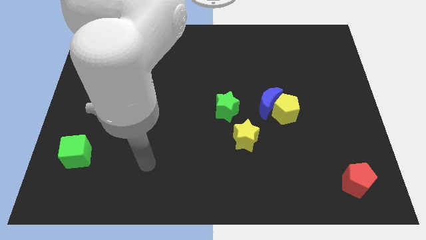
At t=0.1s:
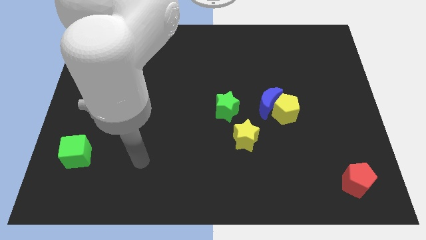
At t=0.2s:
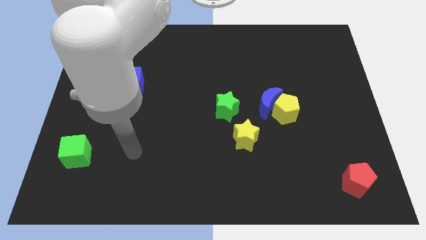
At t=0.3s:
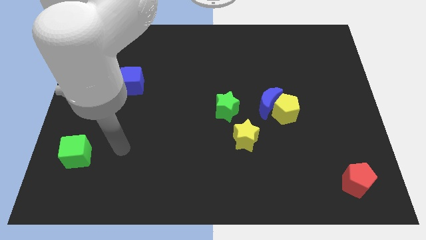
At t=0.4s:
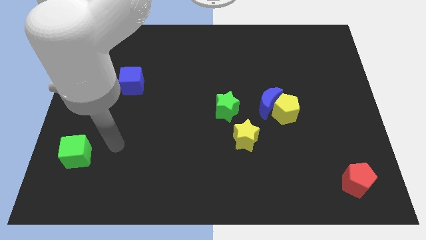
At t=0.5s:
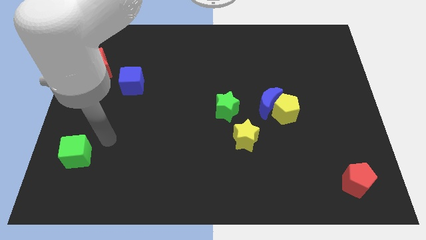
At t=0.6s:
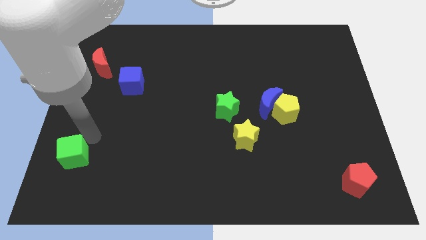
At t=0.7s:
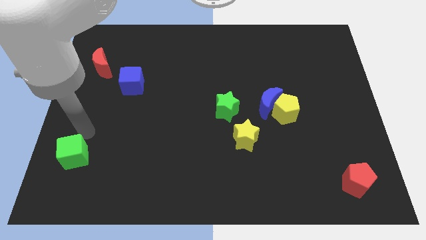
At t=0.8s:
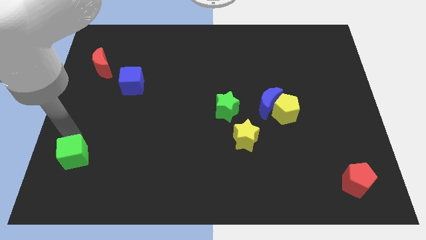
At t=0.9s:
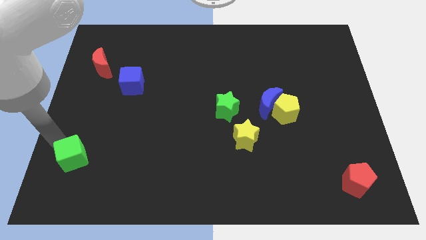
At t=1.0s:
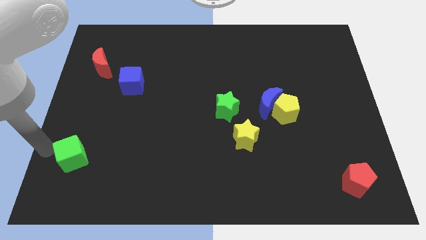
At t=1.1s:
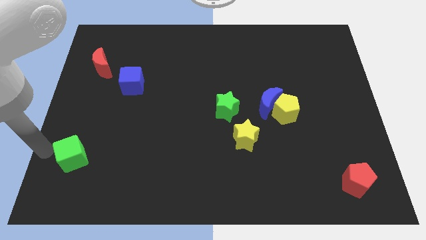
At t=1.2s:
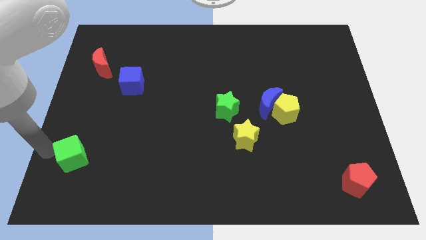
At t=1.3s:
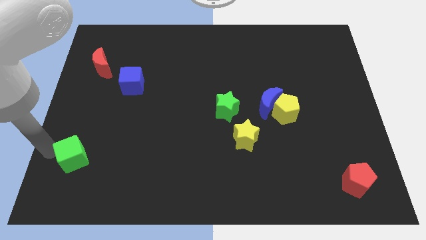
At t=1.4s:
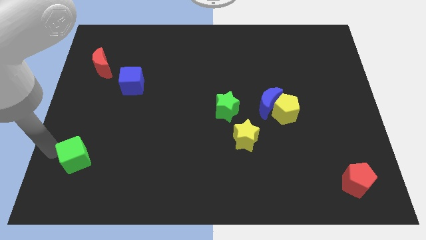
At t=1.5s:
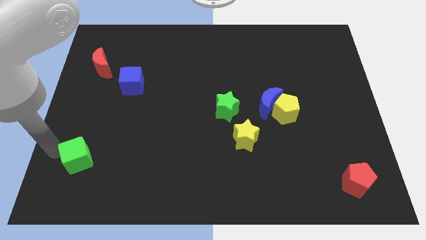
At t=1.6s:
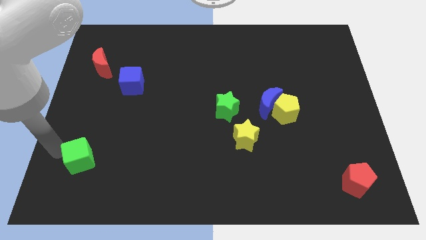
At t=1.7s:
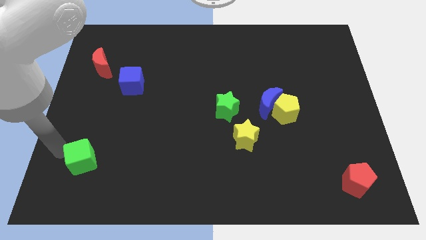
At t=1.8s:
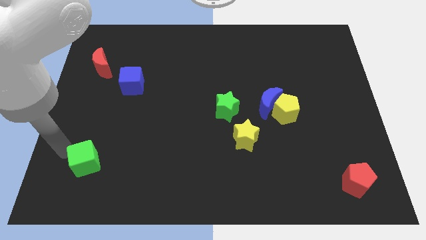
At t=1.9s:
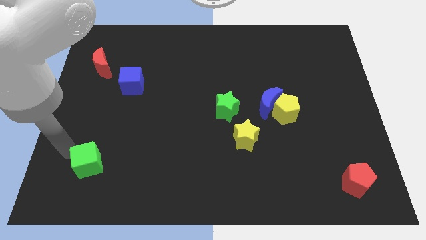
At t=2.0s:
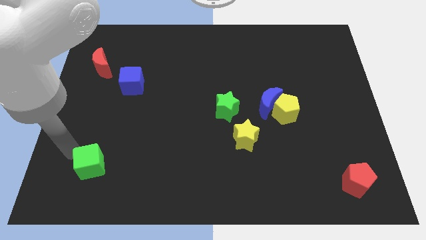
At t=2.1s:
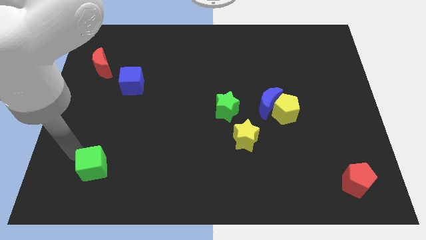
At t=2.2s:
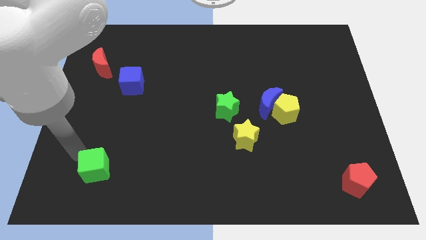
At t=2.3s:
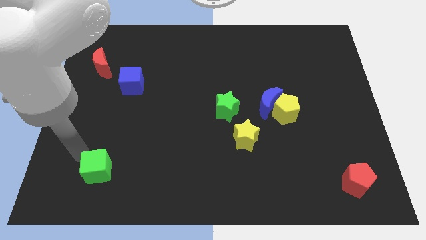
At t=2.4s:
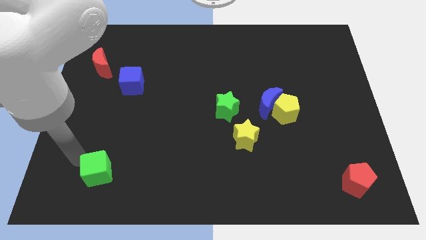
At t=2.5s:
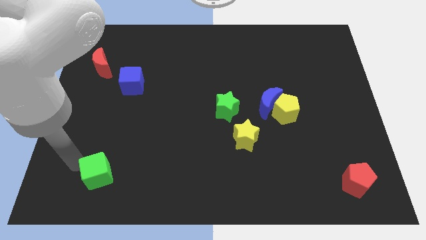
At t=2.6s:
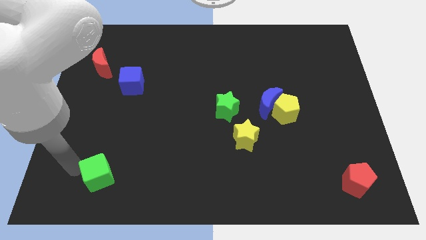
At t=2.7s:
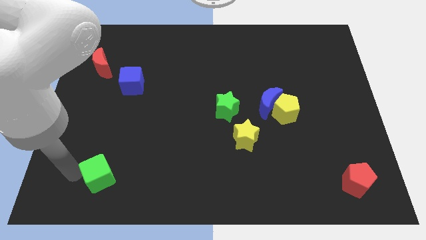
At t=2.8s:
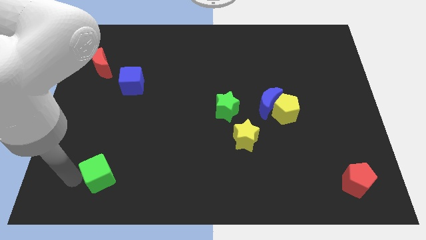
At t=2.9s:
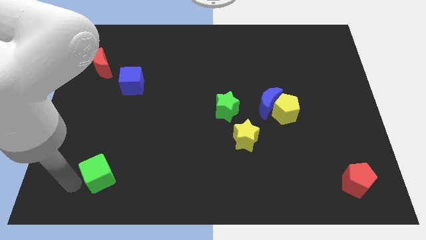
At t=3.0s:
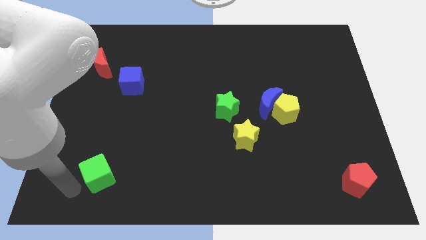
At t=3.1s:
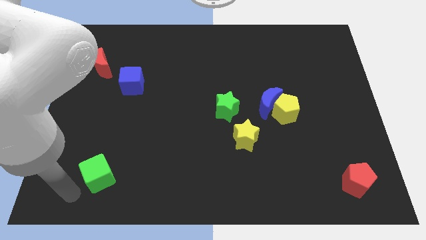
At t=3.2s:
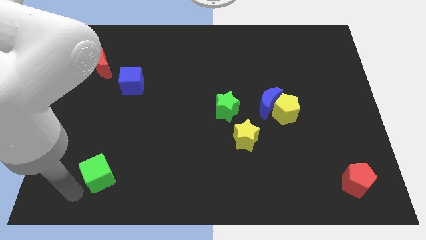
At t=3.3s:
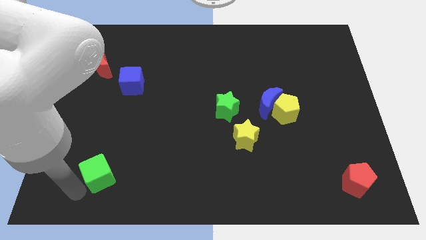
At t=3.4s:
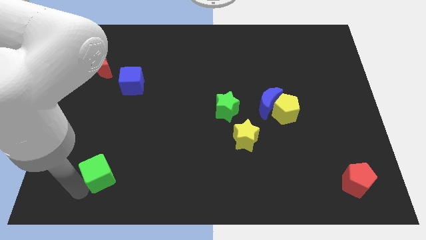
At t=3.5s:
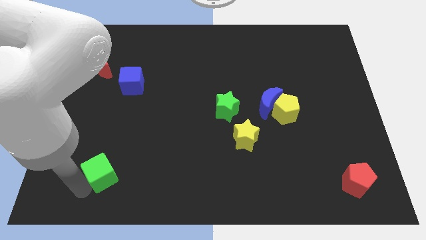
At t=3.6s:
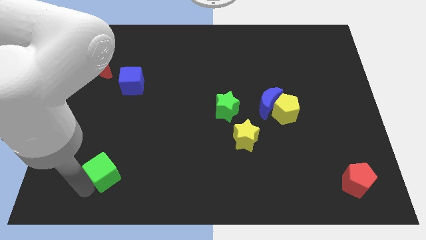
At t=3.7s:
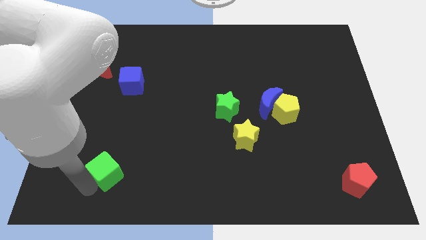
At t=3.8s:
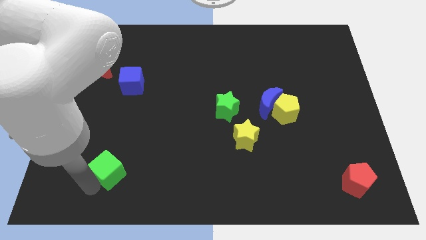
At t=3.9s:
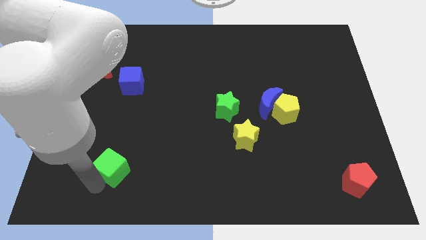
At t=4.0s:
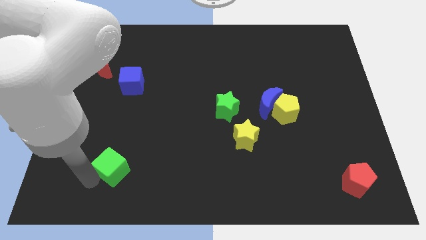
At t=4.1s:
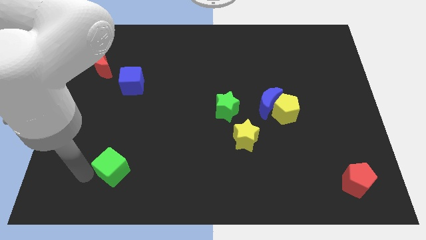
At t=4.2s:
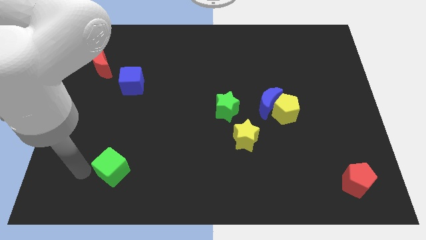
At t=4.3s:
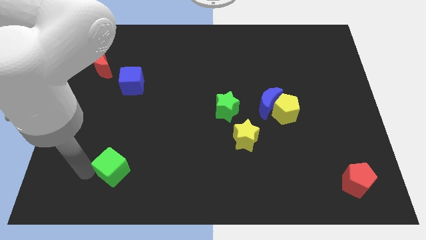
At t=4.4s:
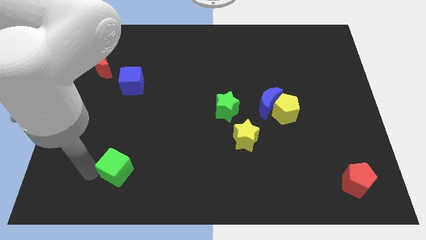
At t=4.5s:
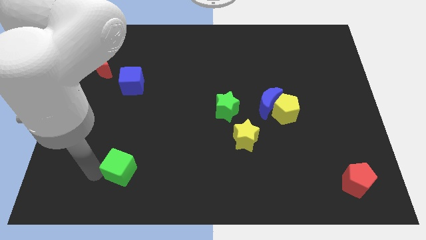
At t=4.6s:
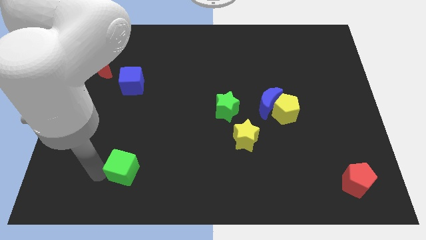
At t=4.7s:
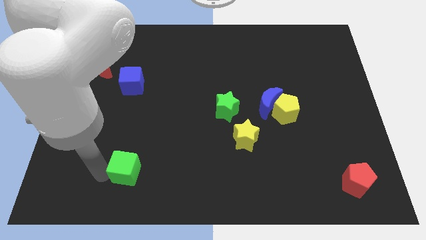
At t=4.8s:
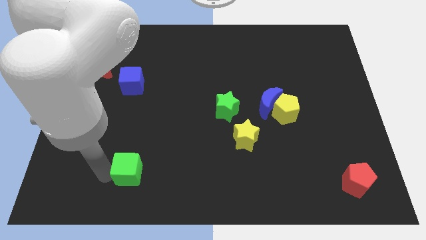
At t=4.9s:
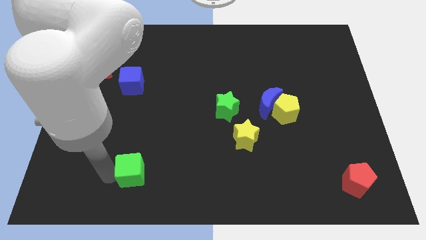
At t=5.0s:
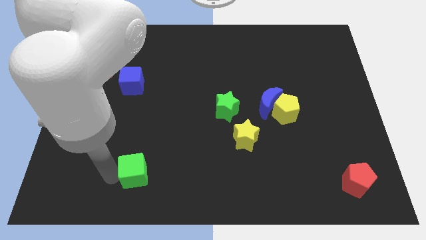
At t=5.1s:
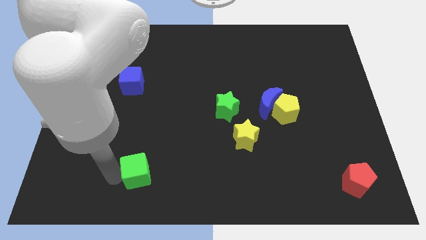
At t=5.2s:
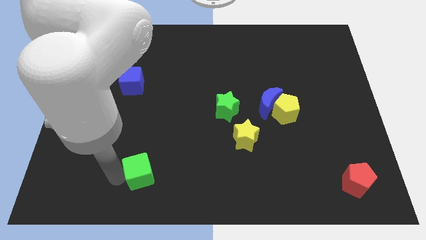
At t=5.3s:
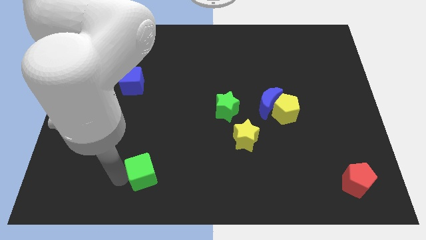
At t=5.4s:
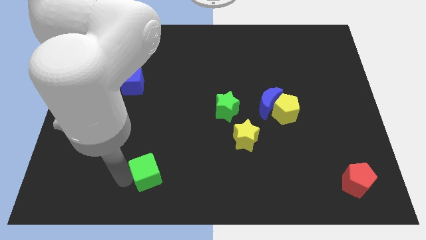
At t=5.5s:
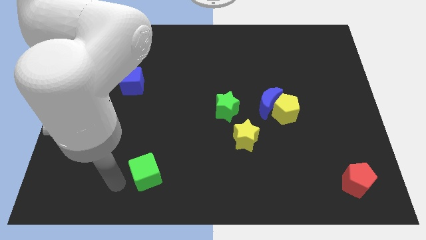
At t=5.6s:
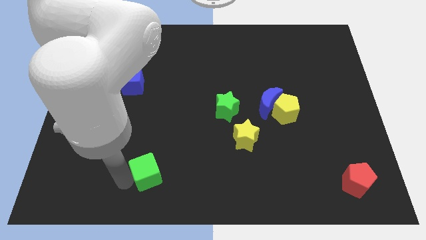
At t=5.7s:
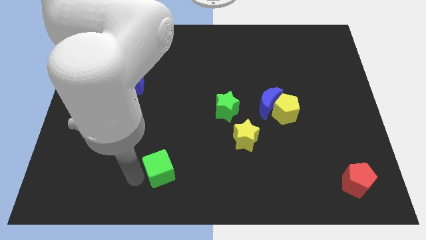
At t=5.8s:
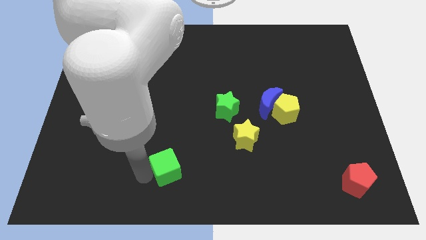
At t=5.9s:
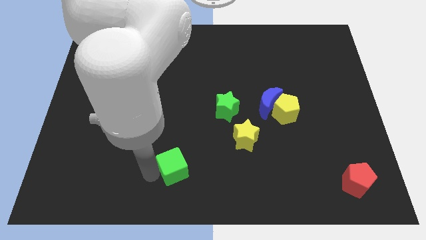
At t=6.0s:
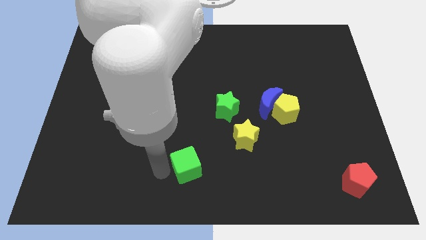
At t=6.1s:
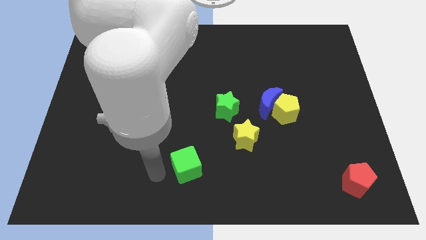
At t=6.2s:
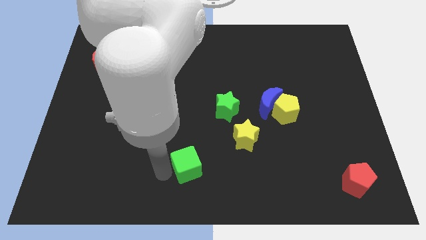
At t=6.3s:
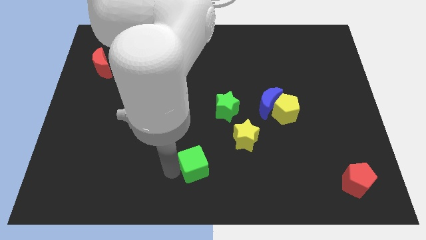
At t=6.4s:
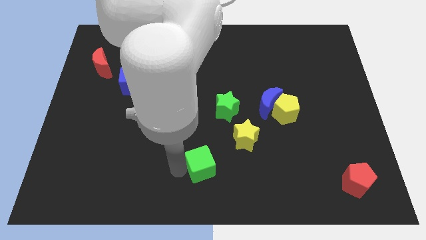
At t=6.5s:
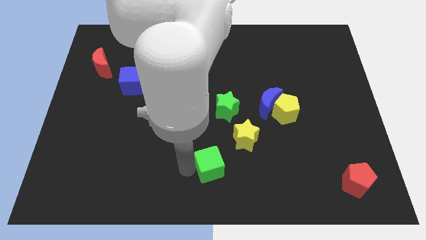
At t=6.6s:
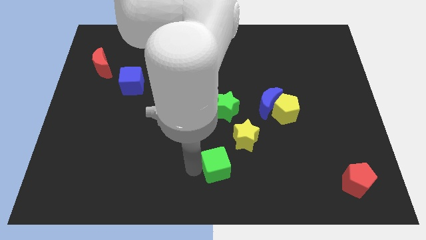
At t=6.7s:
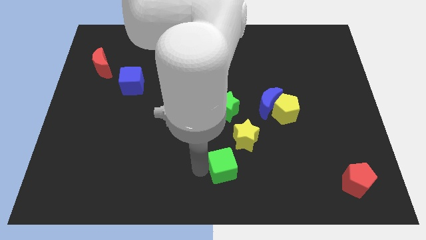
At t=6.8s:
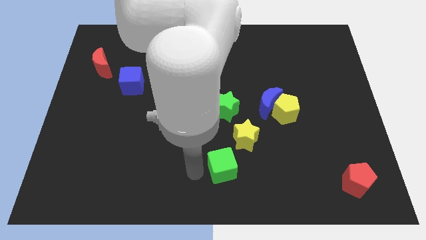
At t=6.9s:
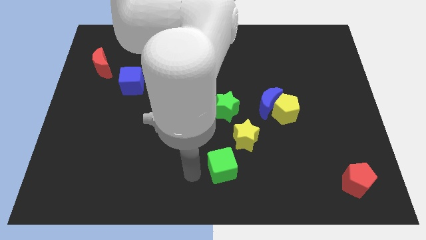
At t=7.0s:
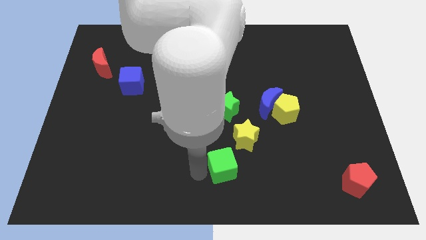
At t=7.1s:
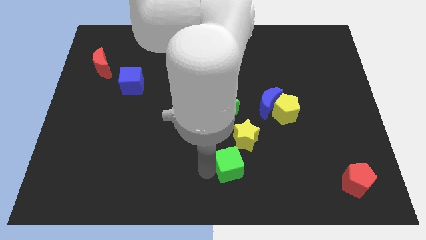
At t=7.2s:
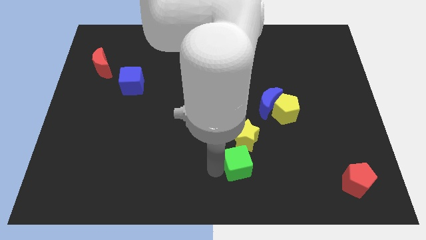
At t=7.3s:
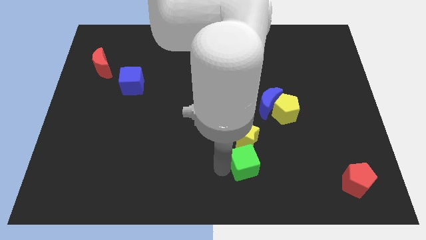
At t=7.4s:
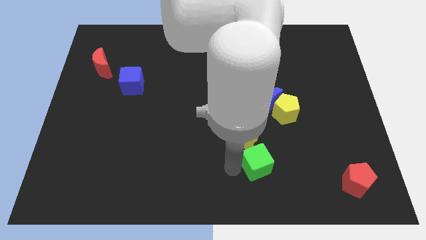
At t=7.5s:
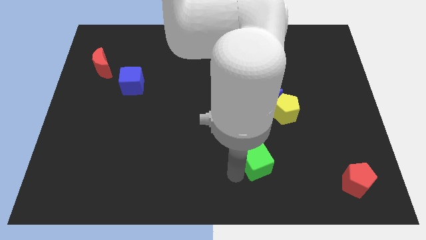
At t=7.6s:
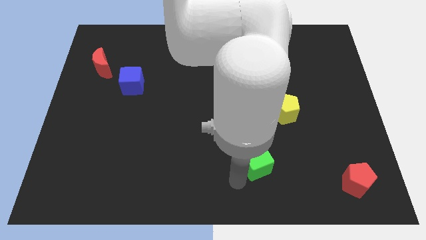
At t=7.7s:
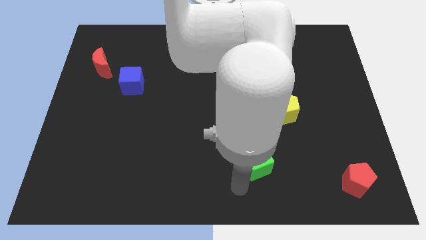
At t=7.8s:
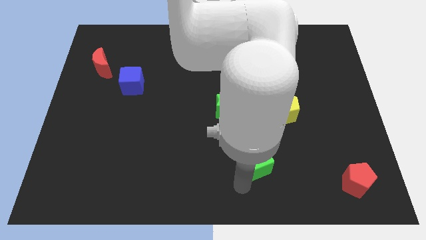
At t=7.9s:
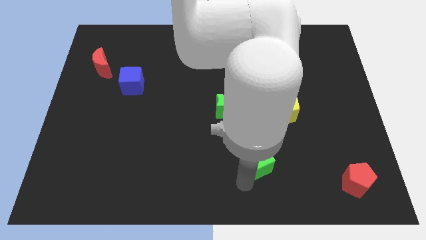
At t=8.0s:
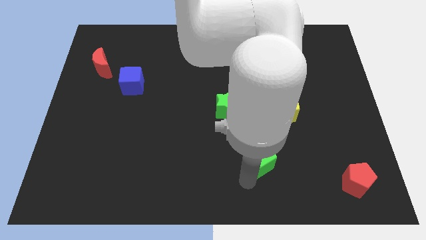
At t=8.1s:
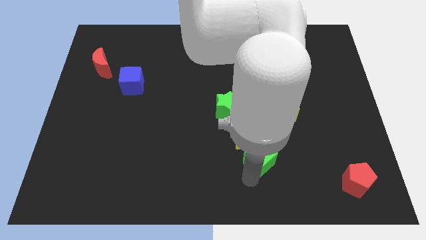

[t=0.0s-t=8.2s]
push the green cube below the blue moon
